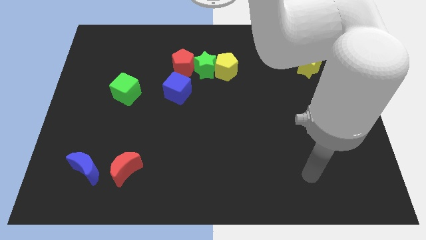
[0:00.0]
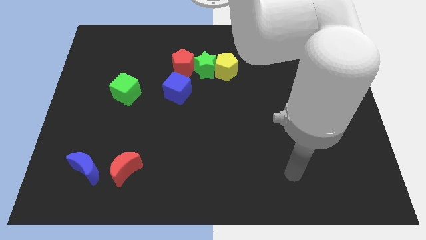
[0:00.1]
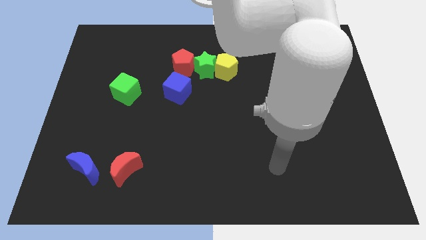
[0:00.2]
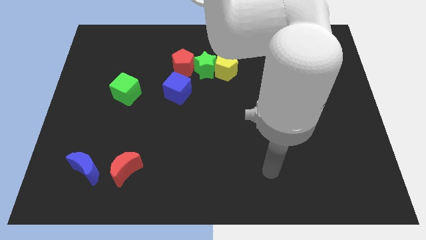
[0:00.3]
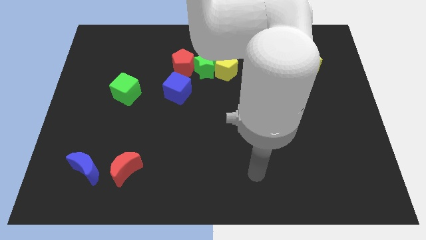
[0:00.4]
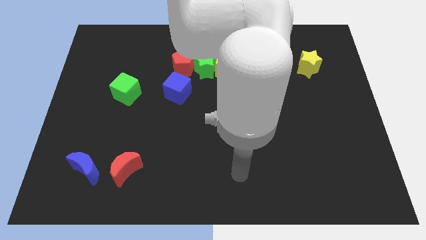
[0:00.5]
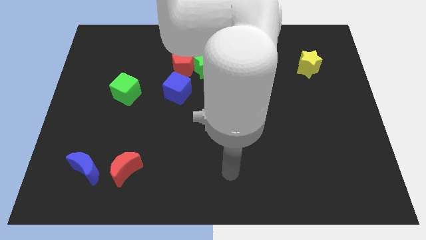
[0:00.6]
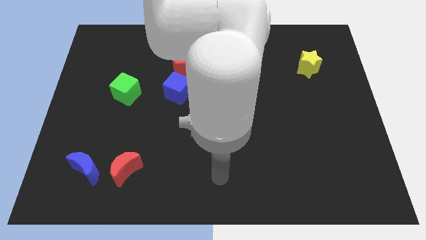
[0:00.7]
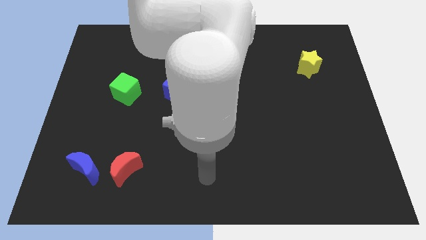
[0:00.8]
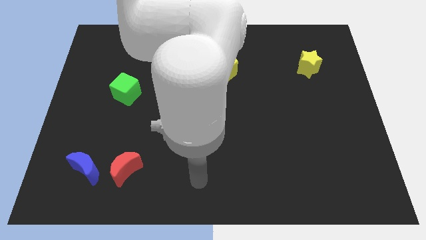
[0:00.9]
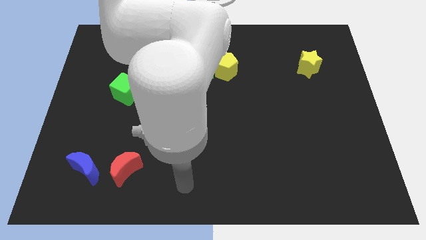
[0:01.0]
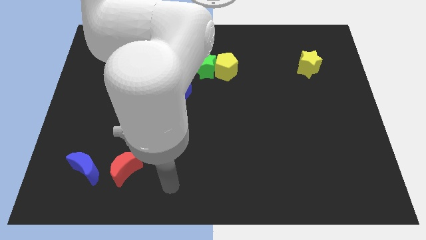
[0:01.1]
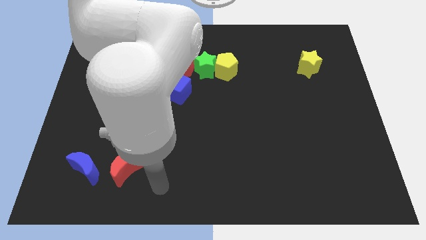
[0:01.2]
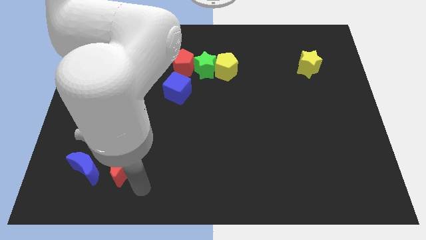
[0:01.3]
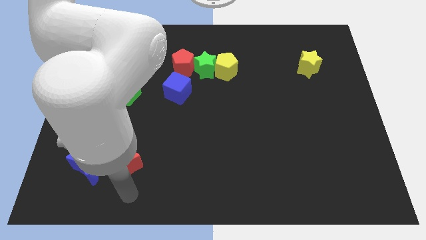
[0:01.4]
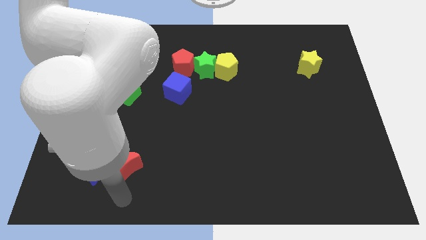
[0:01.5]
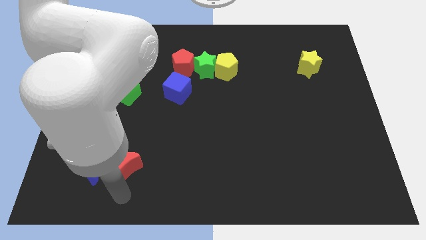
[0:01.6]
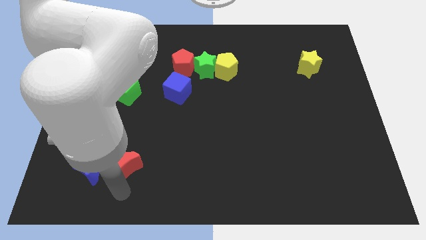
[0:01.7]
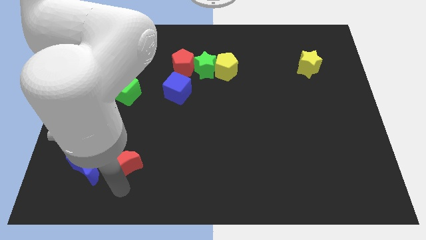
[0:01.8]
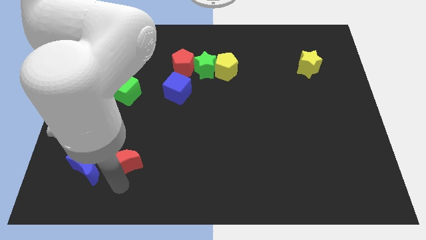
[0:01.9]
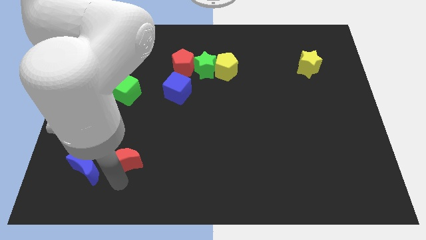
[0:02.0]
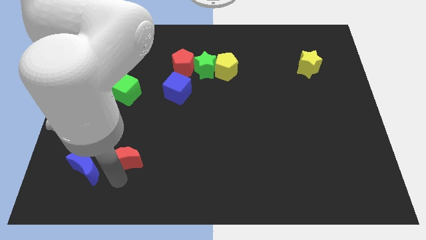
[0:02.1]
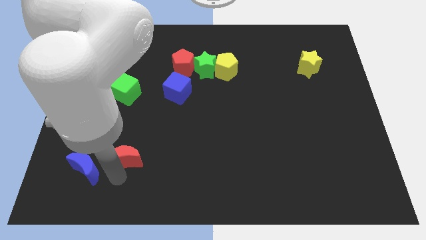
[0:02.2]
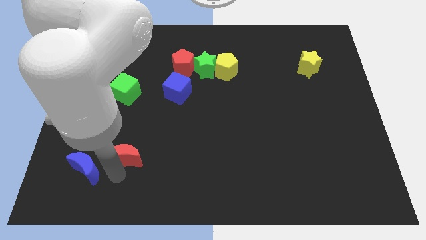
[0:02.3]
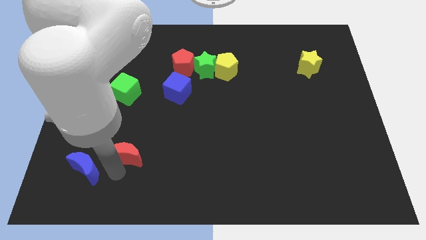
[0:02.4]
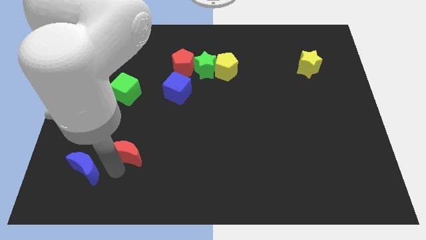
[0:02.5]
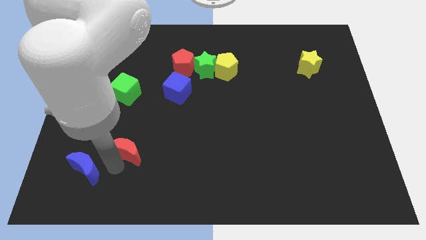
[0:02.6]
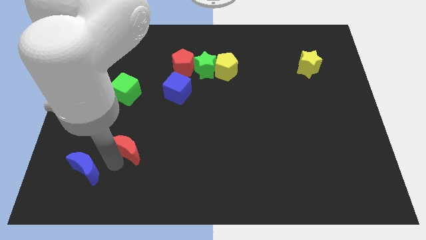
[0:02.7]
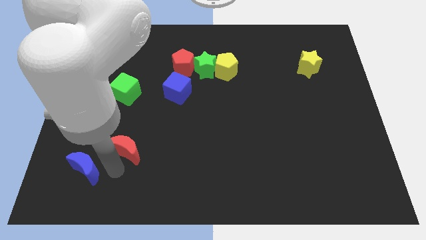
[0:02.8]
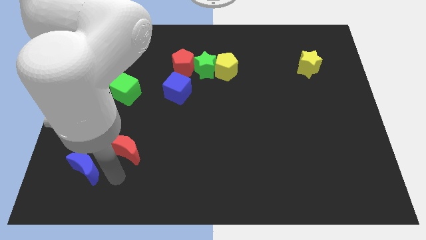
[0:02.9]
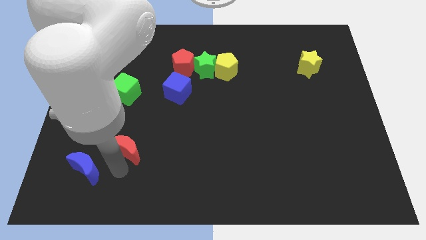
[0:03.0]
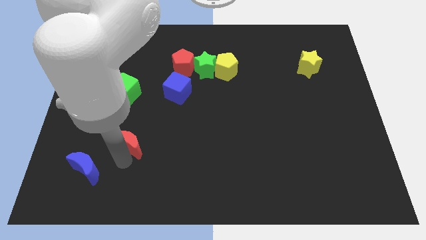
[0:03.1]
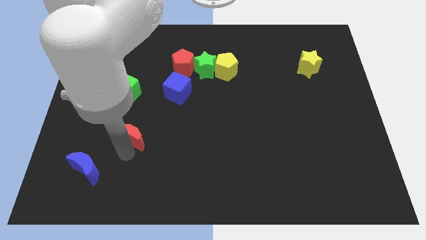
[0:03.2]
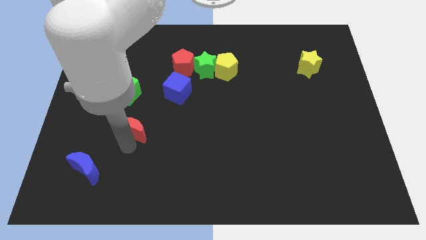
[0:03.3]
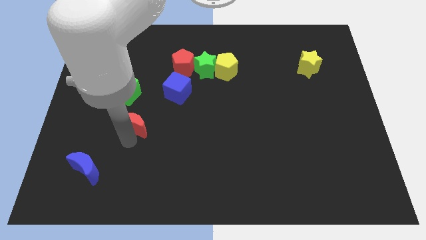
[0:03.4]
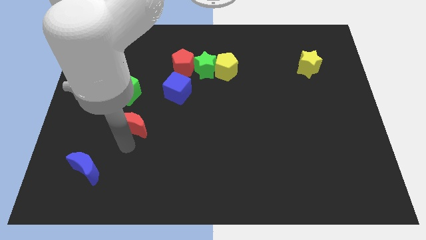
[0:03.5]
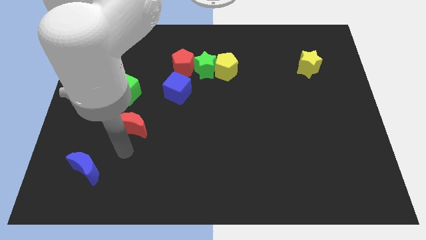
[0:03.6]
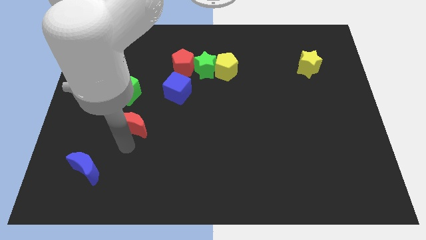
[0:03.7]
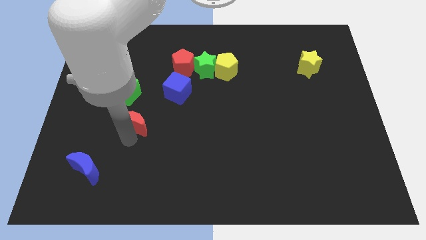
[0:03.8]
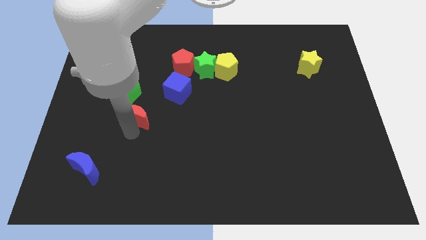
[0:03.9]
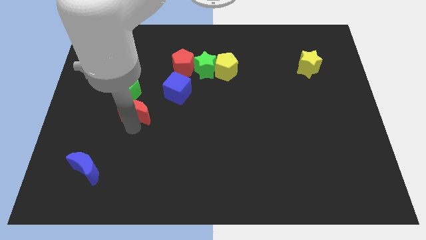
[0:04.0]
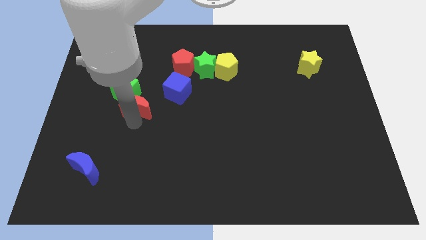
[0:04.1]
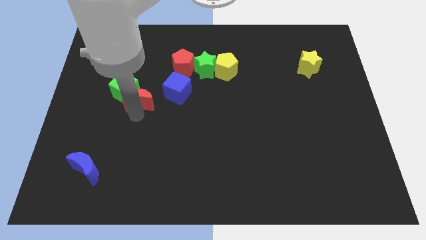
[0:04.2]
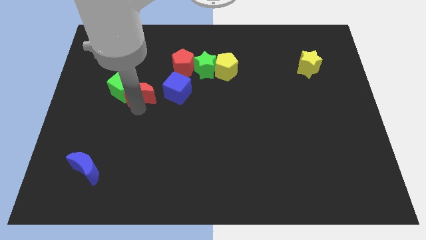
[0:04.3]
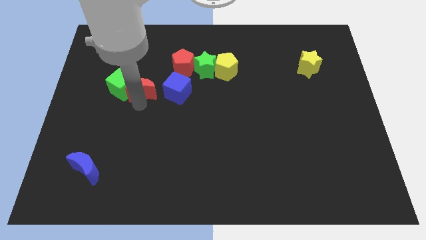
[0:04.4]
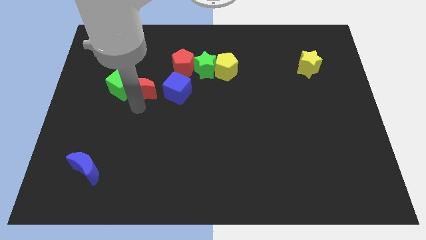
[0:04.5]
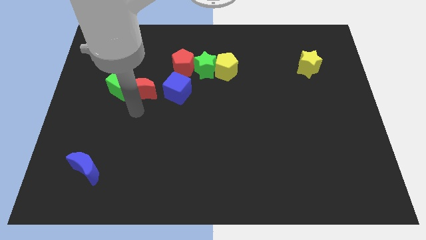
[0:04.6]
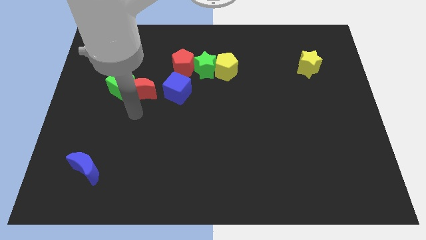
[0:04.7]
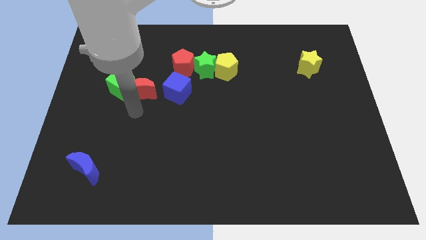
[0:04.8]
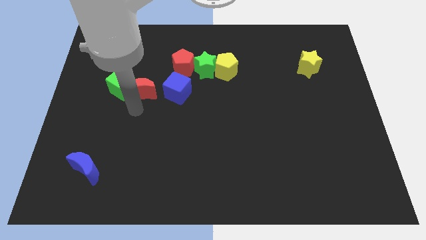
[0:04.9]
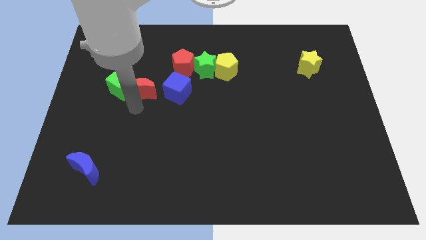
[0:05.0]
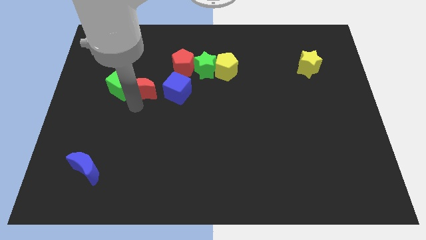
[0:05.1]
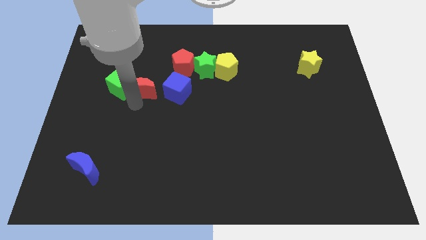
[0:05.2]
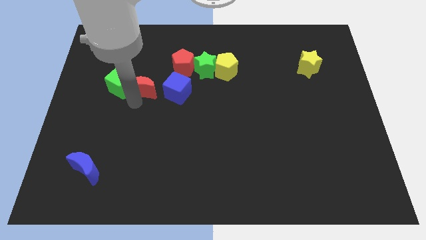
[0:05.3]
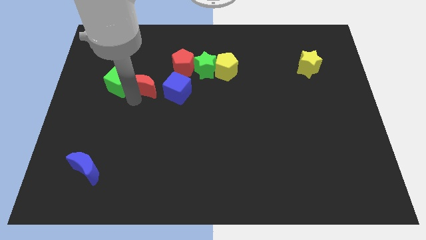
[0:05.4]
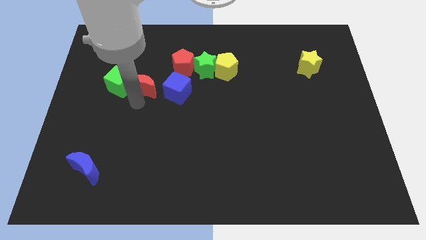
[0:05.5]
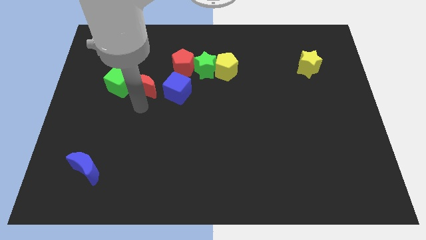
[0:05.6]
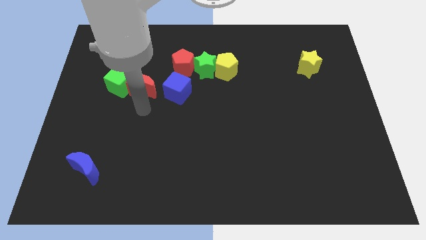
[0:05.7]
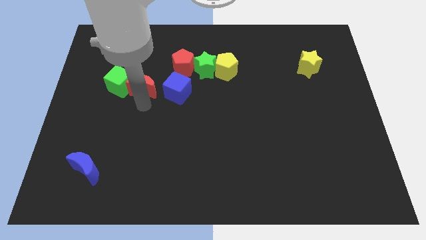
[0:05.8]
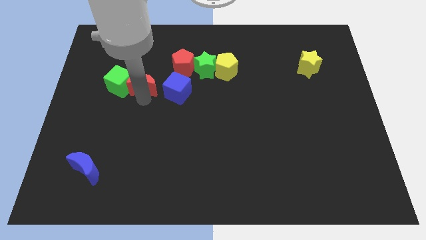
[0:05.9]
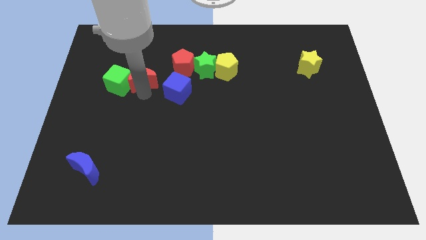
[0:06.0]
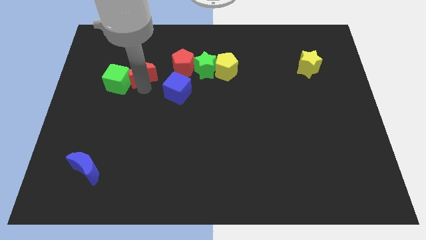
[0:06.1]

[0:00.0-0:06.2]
move the red moon to the left of the red pentagon
